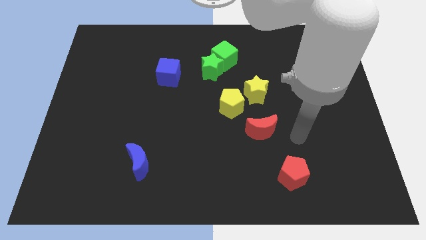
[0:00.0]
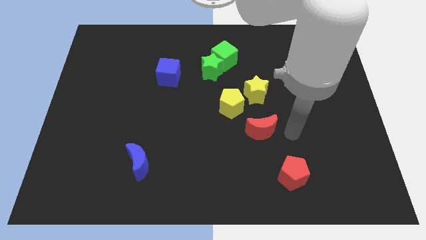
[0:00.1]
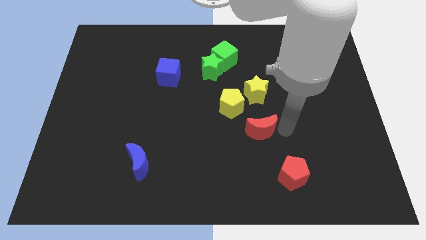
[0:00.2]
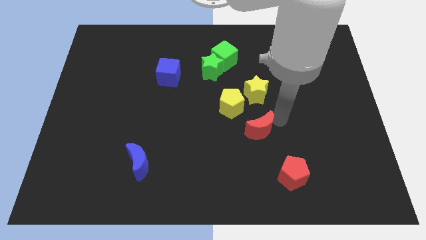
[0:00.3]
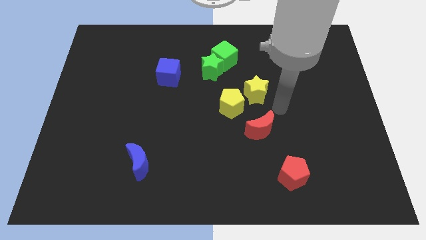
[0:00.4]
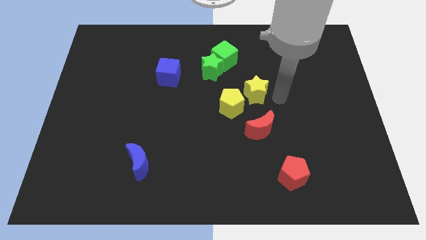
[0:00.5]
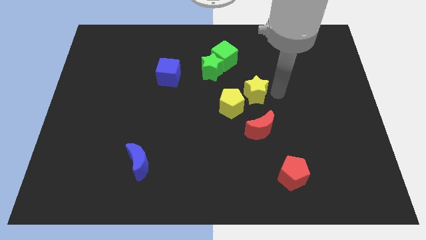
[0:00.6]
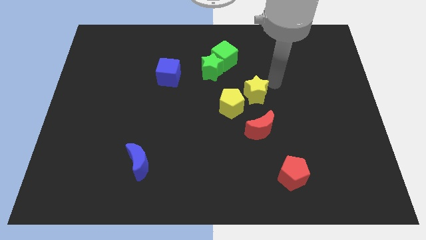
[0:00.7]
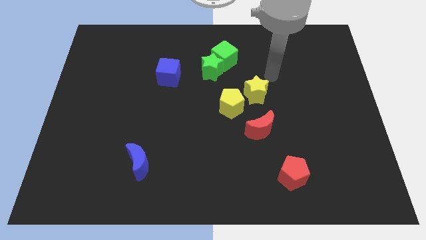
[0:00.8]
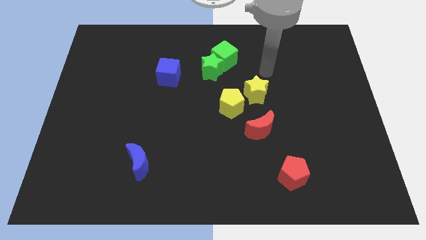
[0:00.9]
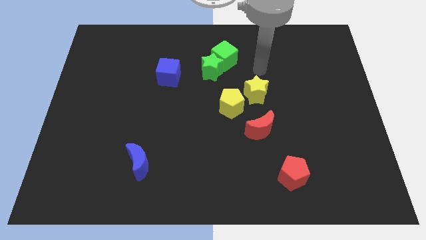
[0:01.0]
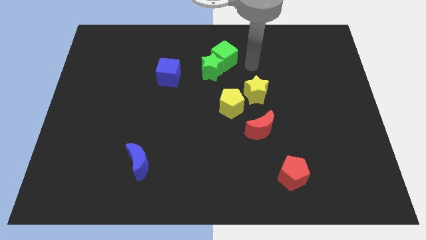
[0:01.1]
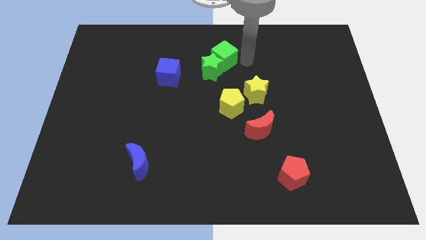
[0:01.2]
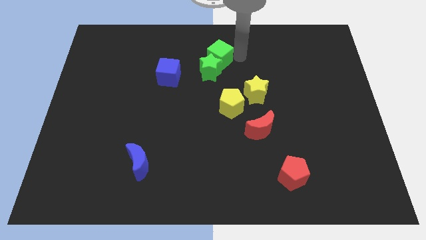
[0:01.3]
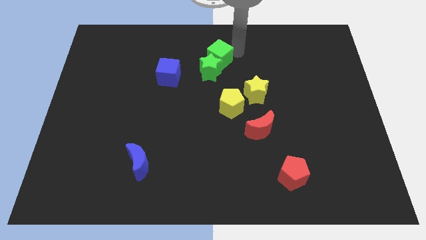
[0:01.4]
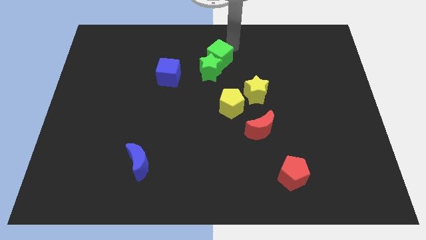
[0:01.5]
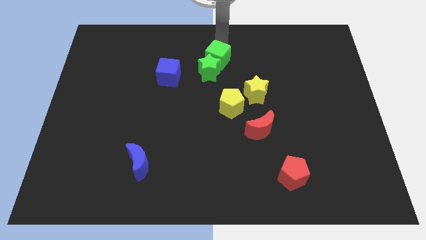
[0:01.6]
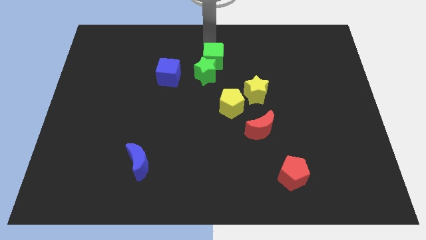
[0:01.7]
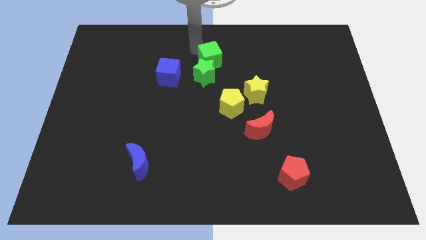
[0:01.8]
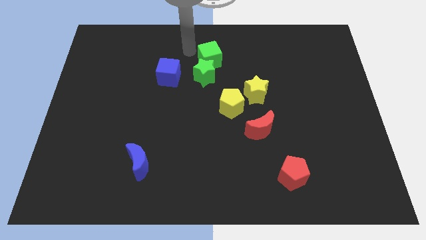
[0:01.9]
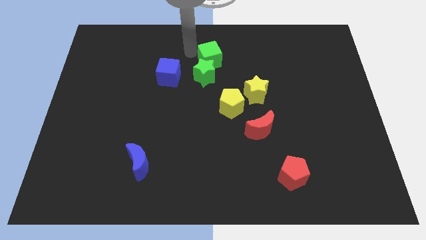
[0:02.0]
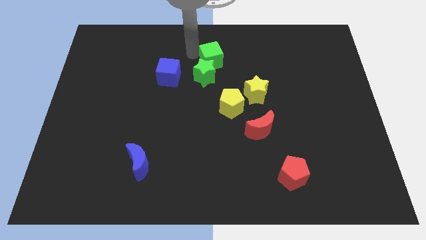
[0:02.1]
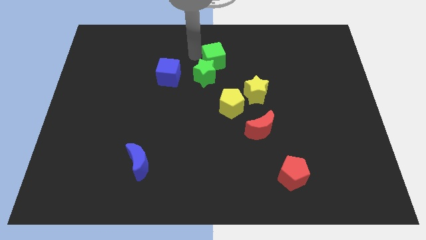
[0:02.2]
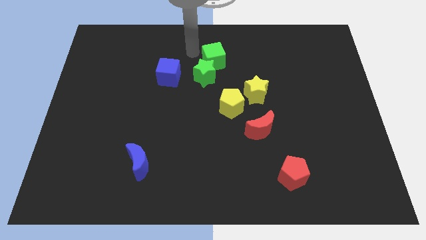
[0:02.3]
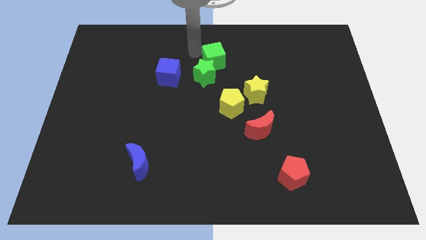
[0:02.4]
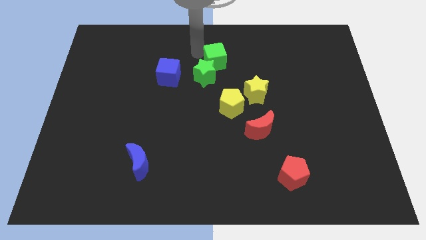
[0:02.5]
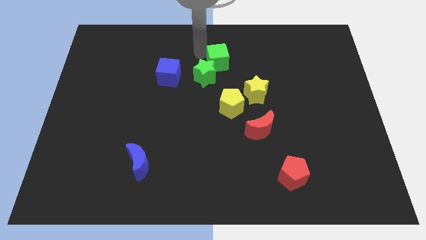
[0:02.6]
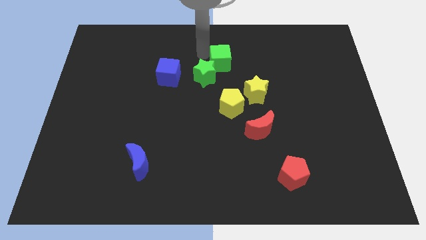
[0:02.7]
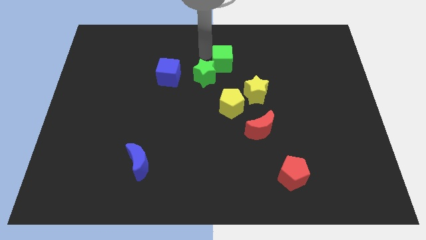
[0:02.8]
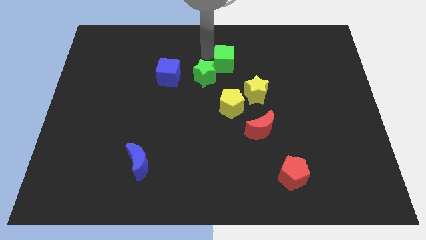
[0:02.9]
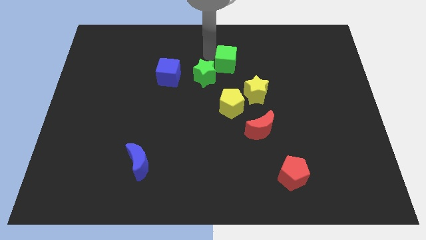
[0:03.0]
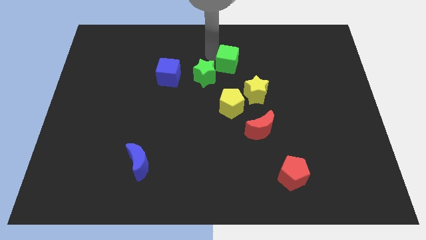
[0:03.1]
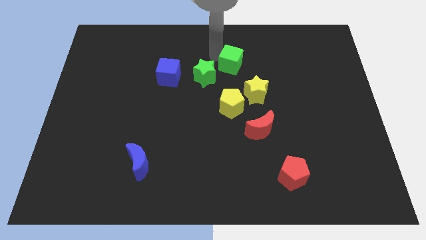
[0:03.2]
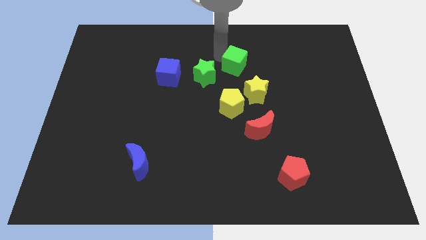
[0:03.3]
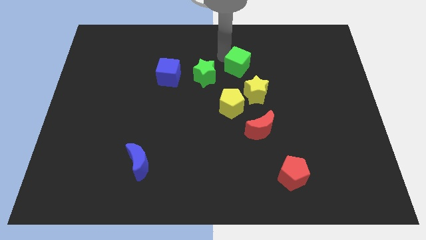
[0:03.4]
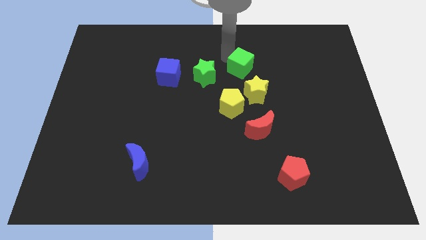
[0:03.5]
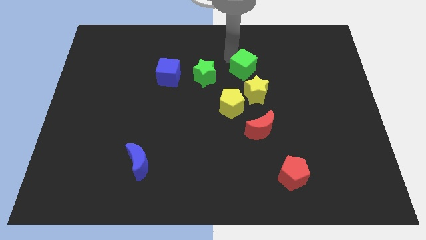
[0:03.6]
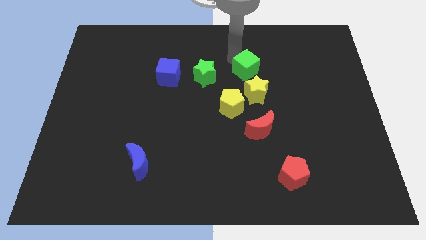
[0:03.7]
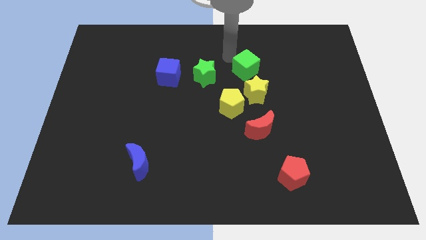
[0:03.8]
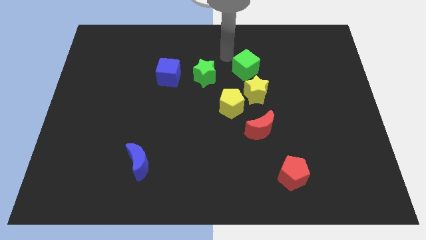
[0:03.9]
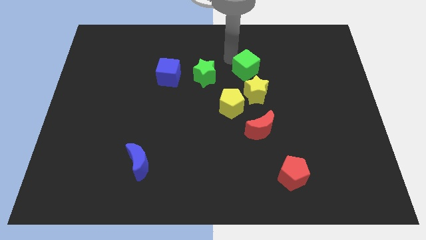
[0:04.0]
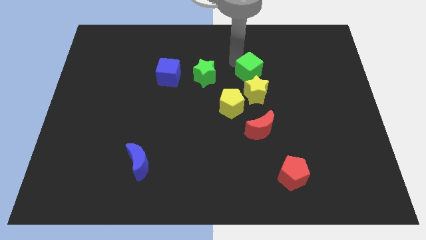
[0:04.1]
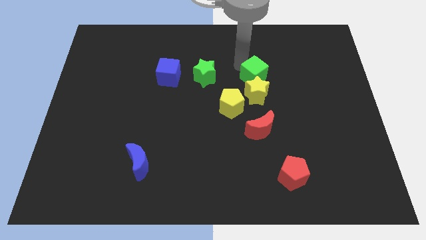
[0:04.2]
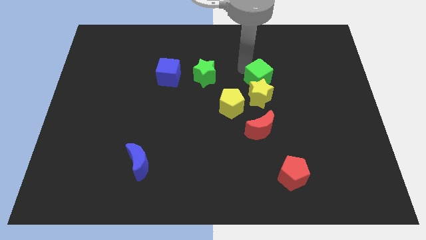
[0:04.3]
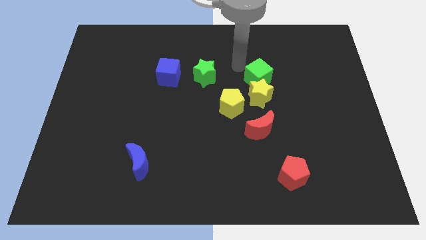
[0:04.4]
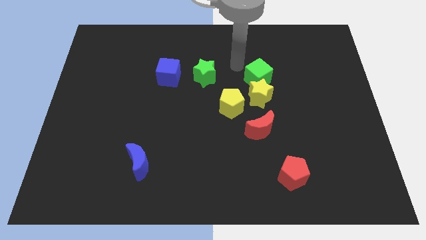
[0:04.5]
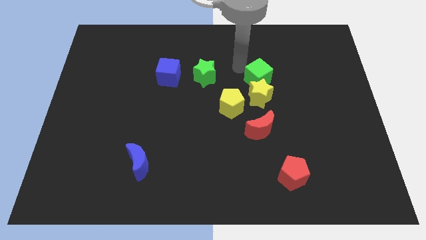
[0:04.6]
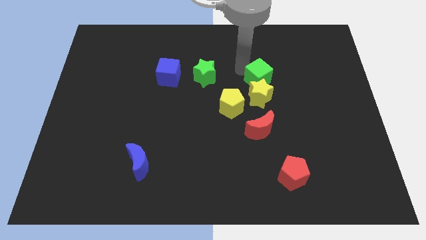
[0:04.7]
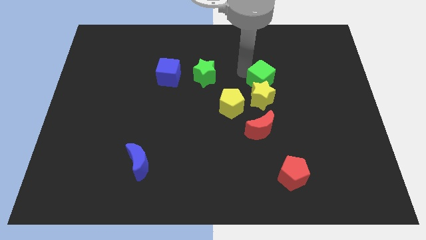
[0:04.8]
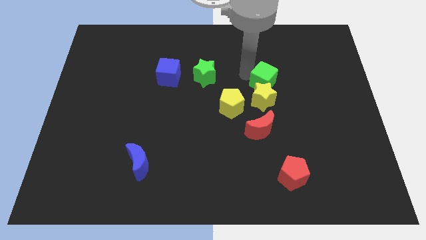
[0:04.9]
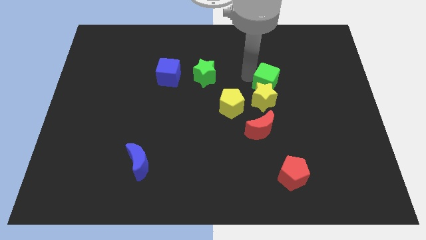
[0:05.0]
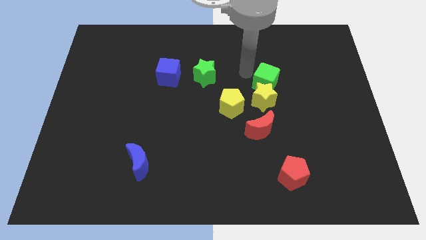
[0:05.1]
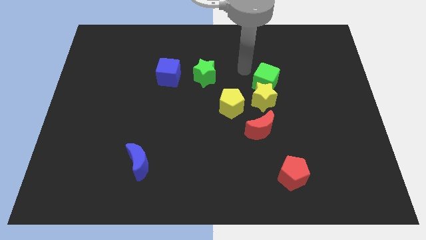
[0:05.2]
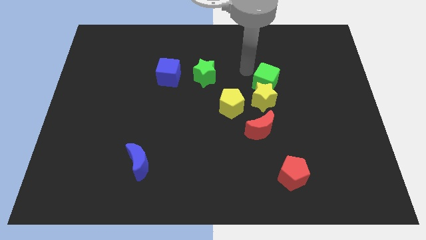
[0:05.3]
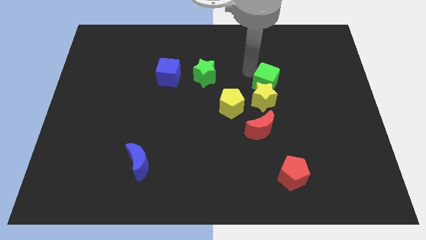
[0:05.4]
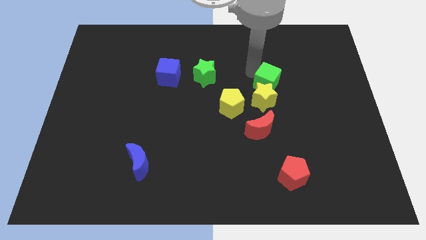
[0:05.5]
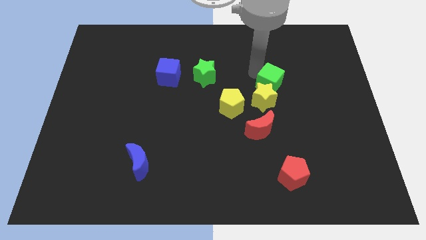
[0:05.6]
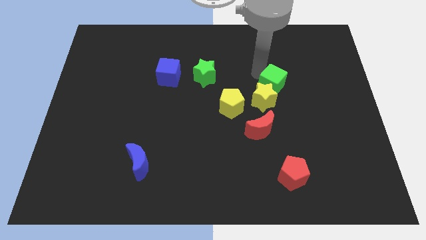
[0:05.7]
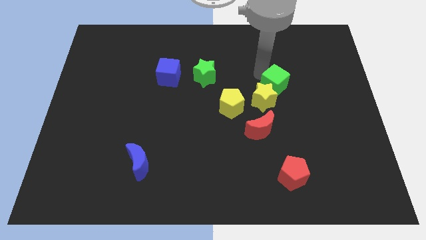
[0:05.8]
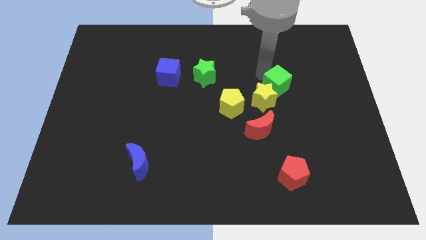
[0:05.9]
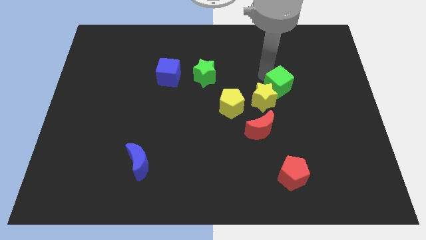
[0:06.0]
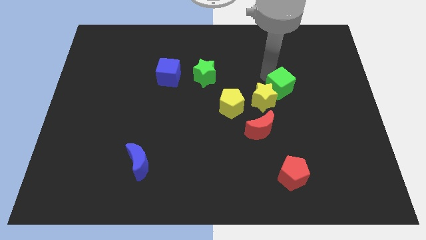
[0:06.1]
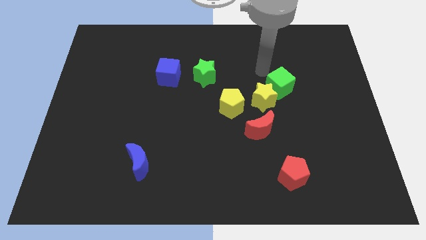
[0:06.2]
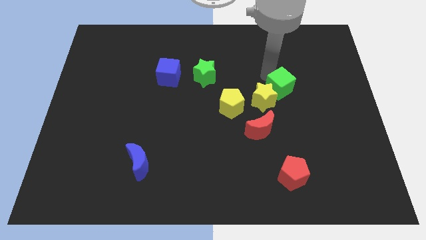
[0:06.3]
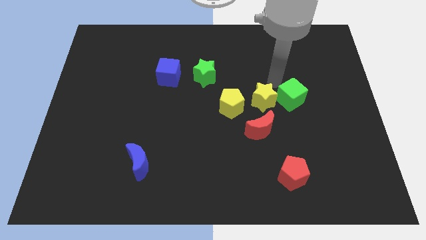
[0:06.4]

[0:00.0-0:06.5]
push the green cube diagonally down and right

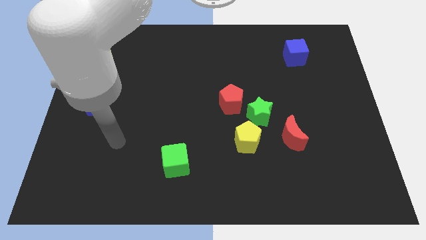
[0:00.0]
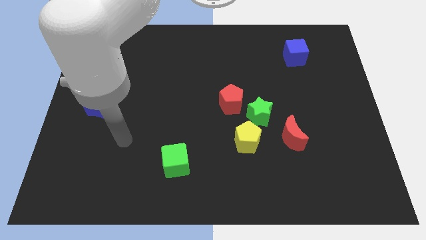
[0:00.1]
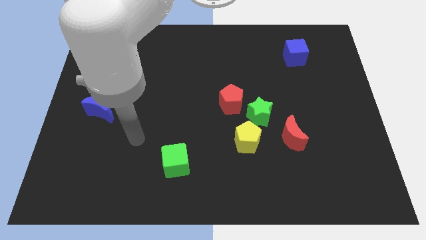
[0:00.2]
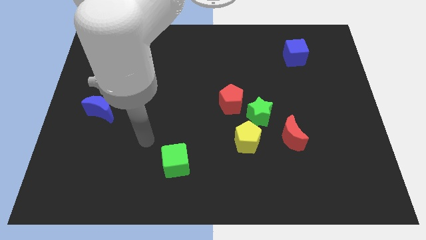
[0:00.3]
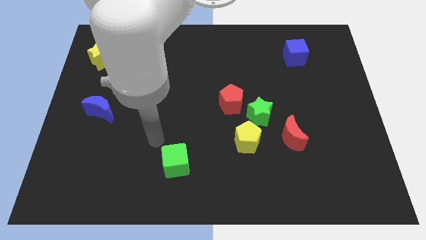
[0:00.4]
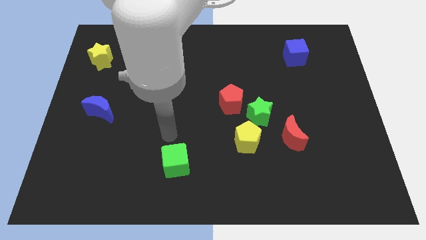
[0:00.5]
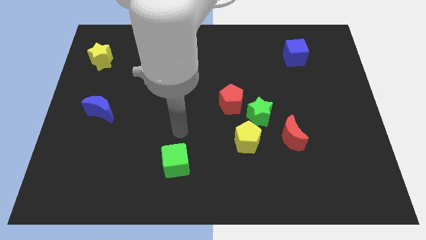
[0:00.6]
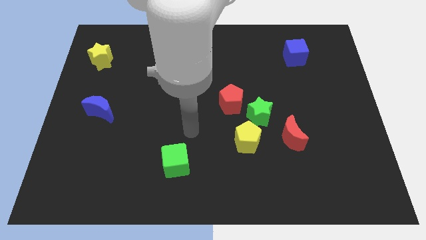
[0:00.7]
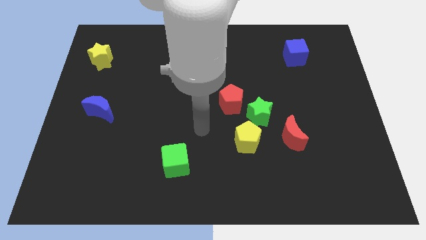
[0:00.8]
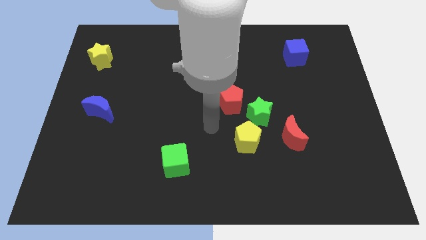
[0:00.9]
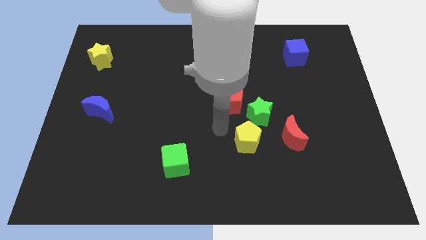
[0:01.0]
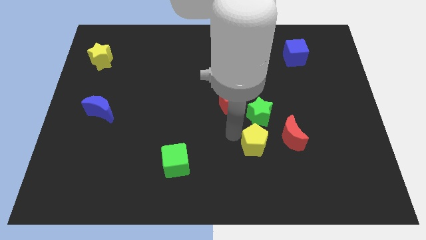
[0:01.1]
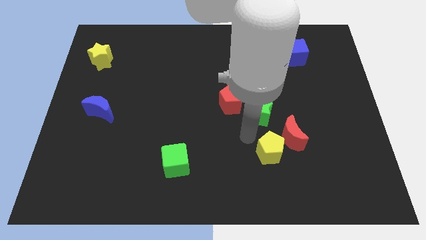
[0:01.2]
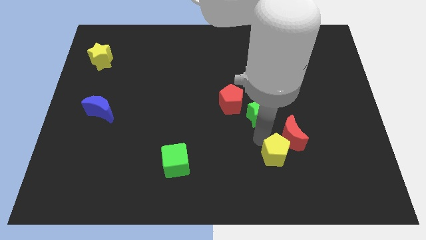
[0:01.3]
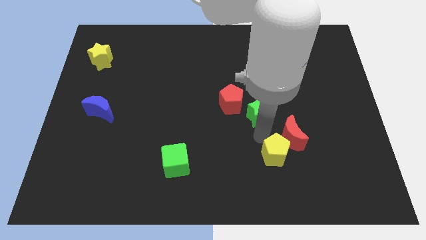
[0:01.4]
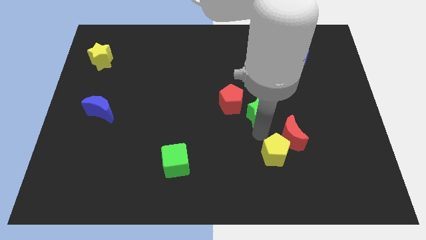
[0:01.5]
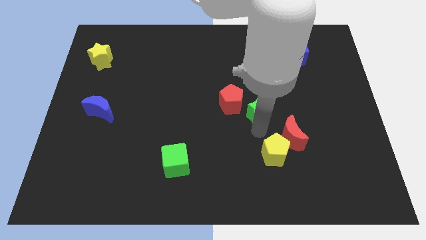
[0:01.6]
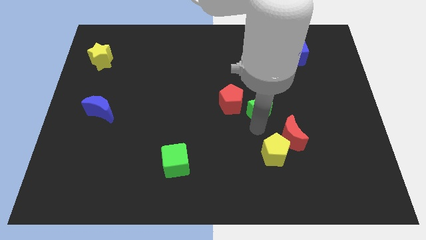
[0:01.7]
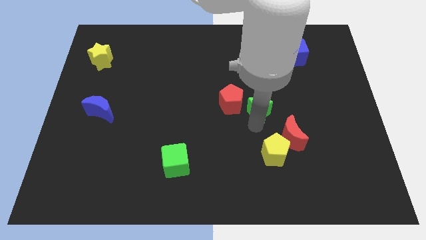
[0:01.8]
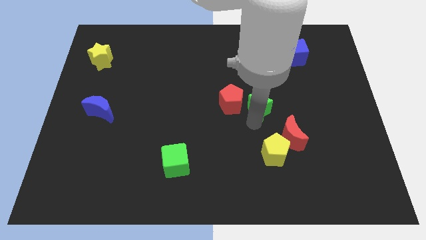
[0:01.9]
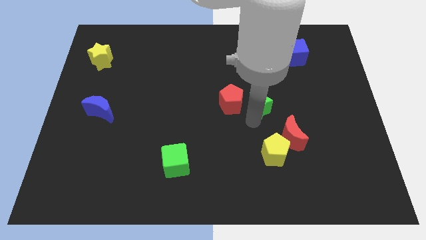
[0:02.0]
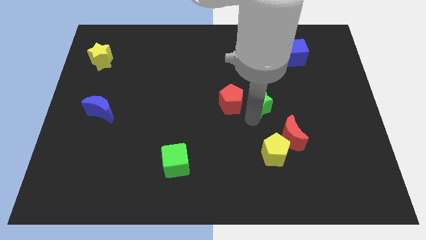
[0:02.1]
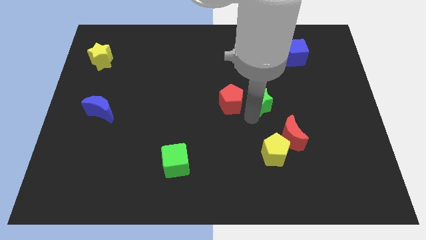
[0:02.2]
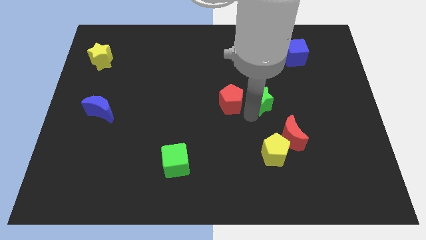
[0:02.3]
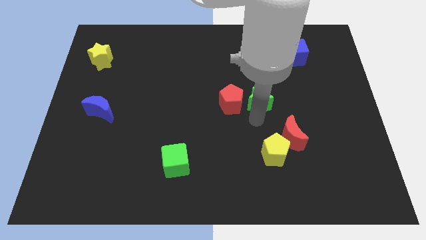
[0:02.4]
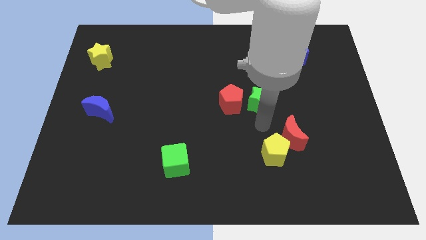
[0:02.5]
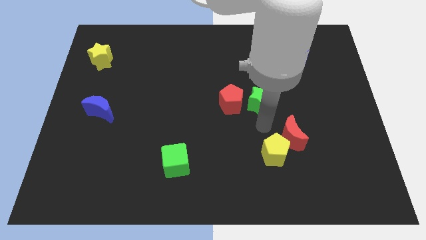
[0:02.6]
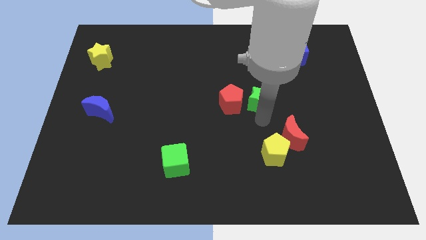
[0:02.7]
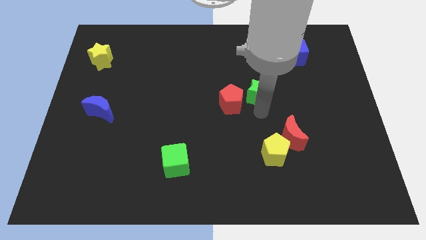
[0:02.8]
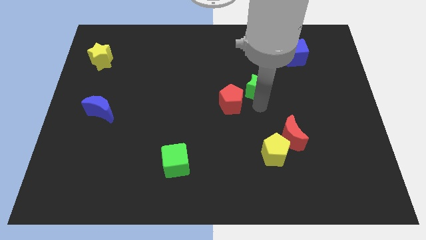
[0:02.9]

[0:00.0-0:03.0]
slightly slide the green star up
